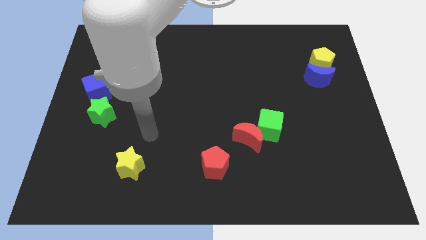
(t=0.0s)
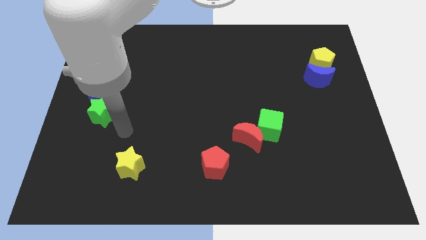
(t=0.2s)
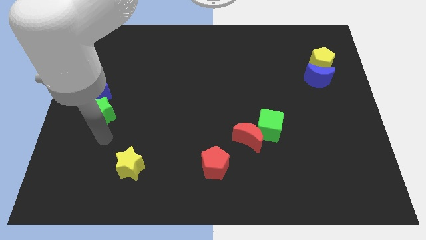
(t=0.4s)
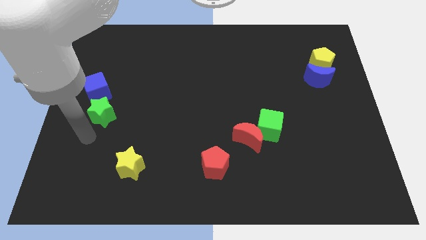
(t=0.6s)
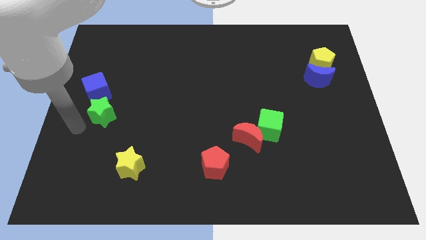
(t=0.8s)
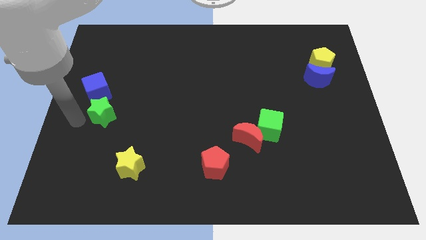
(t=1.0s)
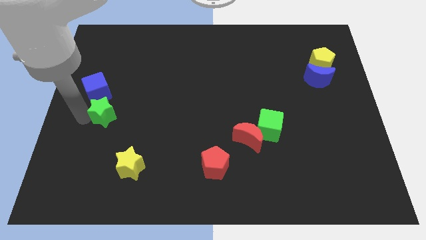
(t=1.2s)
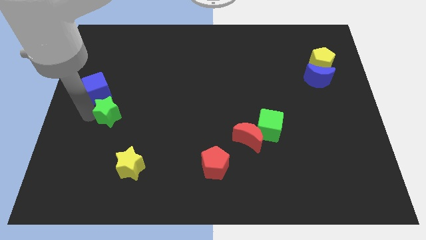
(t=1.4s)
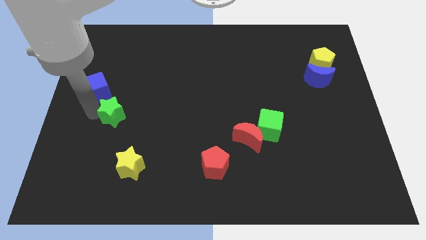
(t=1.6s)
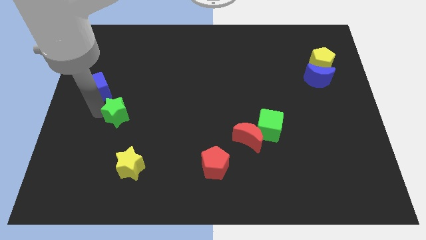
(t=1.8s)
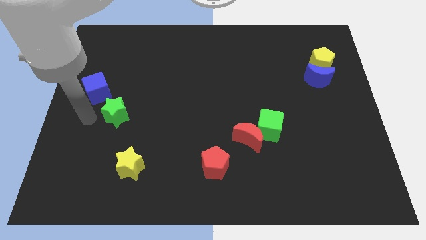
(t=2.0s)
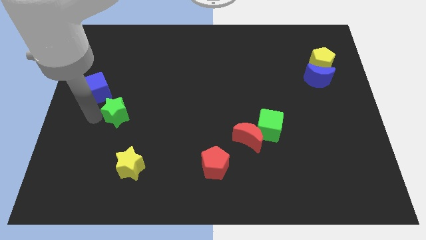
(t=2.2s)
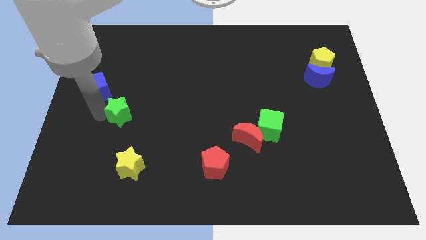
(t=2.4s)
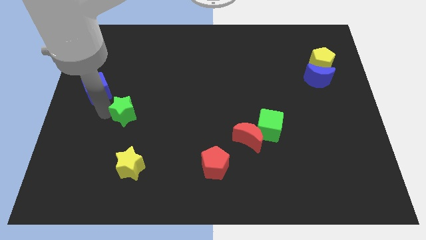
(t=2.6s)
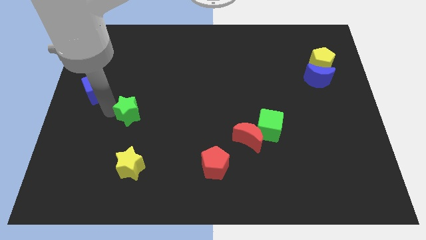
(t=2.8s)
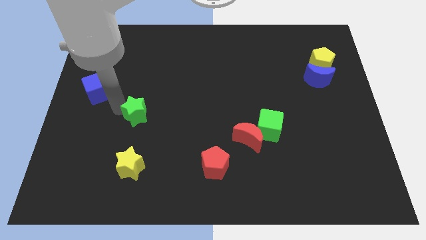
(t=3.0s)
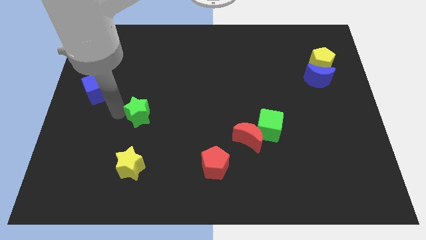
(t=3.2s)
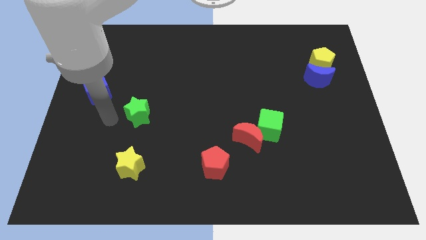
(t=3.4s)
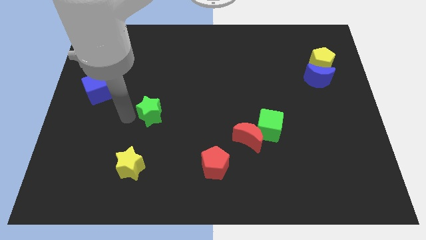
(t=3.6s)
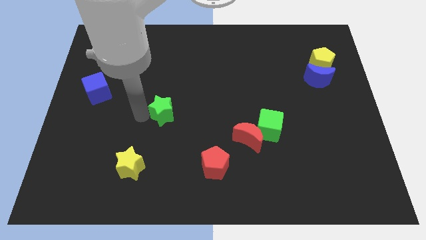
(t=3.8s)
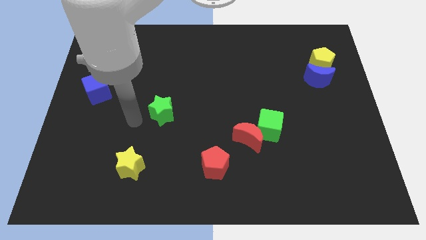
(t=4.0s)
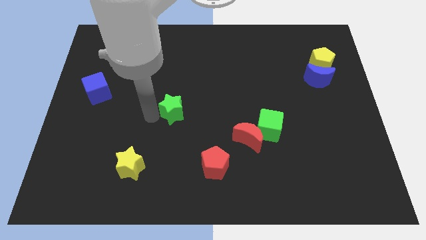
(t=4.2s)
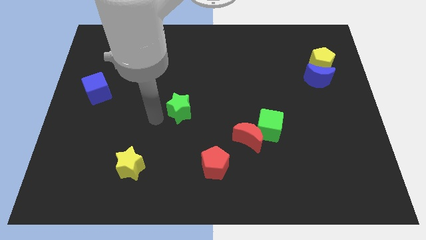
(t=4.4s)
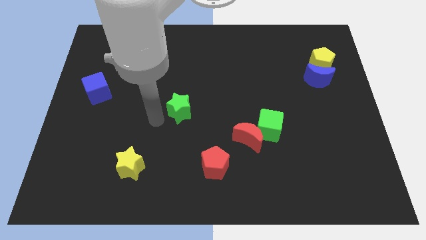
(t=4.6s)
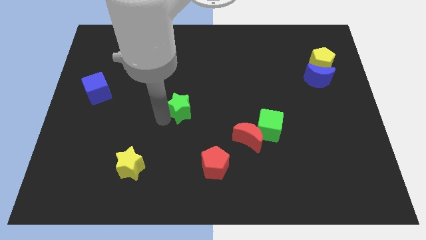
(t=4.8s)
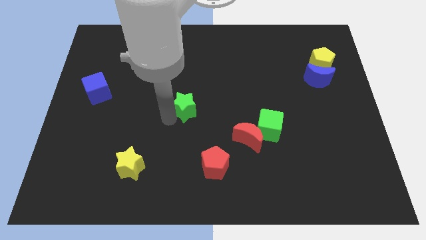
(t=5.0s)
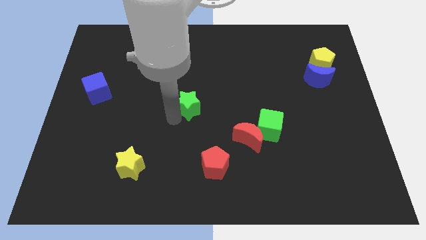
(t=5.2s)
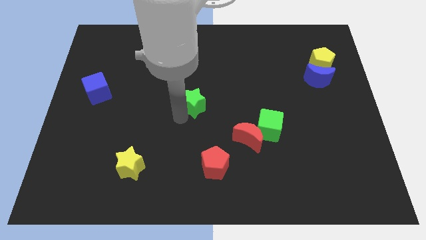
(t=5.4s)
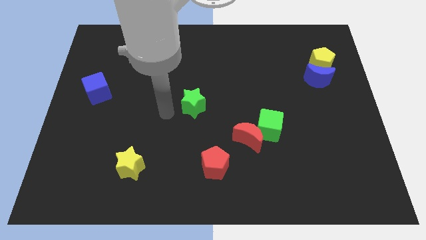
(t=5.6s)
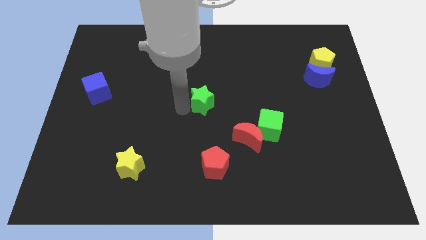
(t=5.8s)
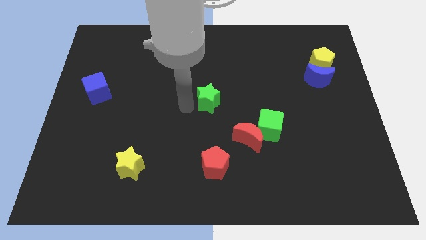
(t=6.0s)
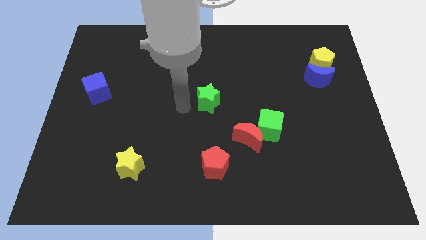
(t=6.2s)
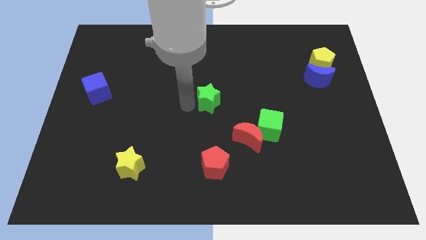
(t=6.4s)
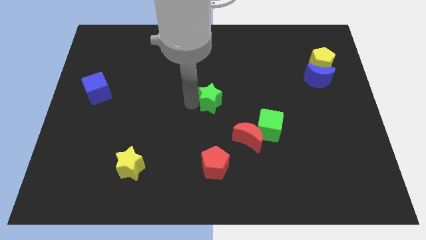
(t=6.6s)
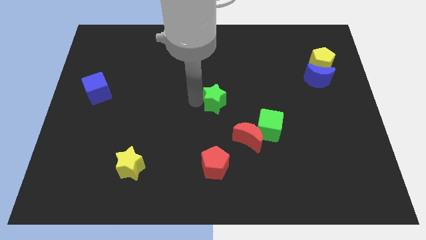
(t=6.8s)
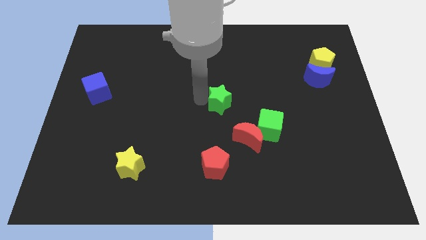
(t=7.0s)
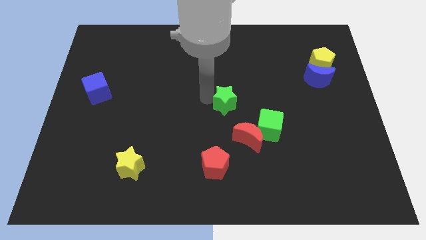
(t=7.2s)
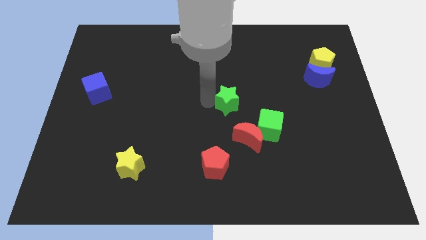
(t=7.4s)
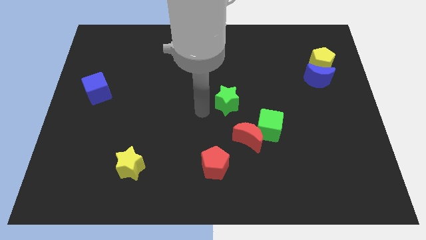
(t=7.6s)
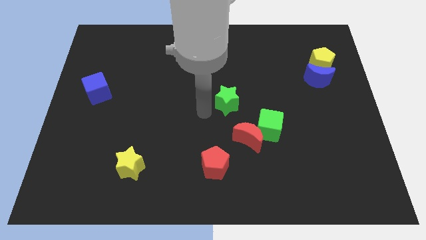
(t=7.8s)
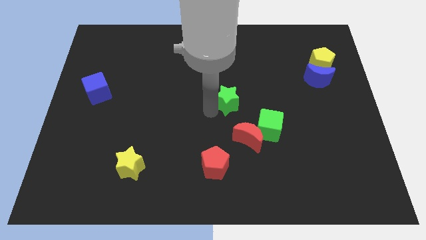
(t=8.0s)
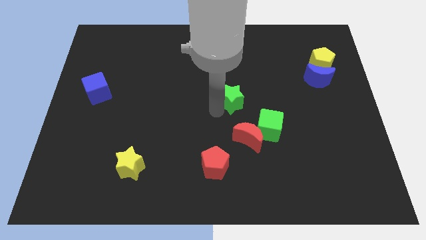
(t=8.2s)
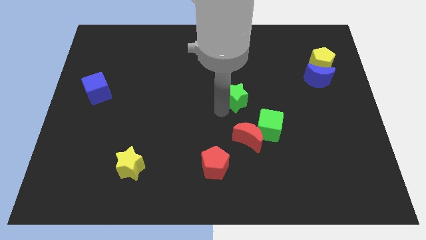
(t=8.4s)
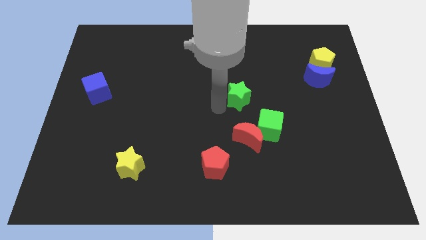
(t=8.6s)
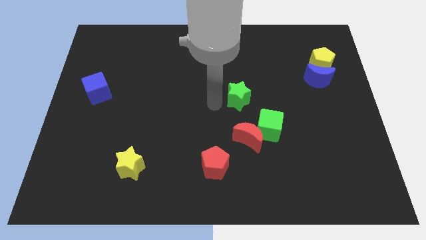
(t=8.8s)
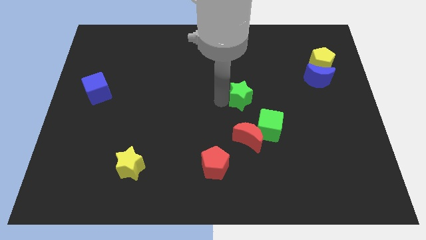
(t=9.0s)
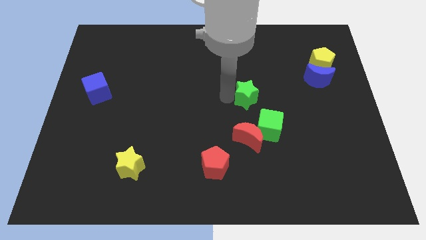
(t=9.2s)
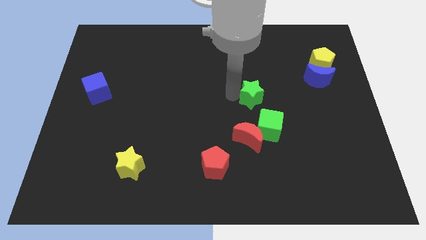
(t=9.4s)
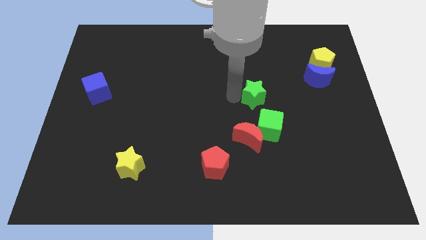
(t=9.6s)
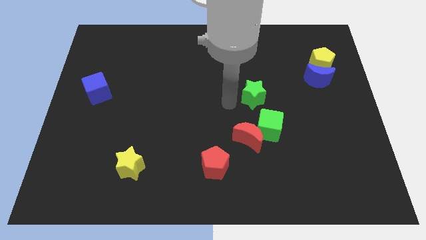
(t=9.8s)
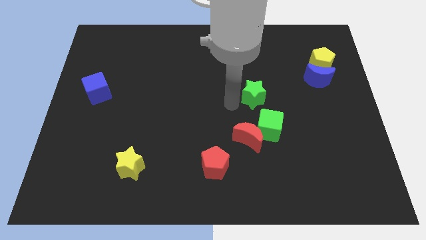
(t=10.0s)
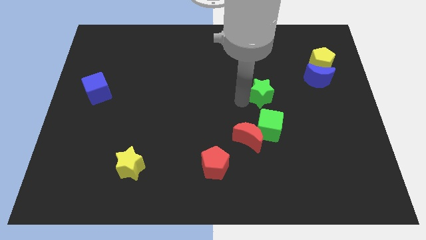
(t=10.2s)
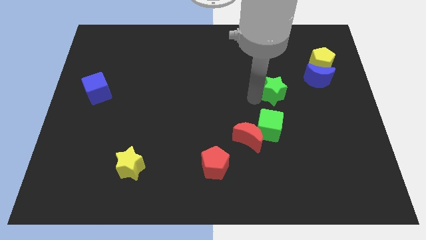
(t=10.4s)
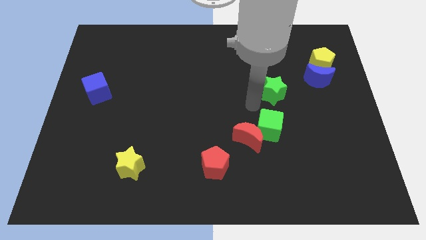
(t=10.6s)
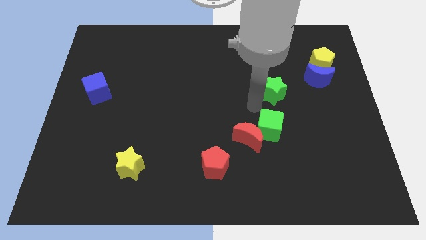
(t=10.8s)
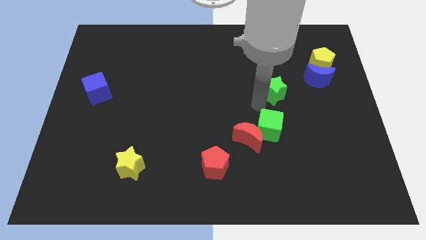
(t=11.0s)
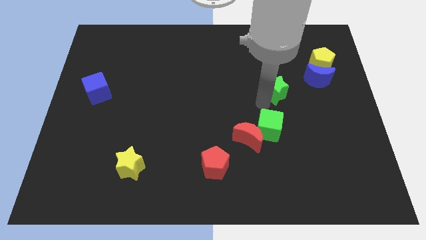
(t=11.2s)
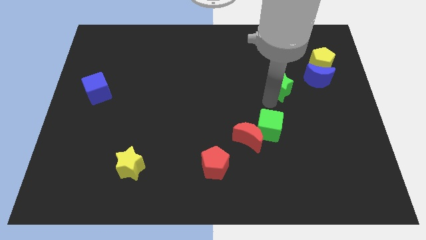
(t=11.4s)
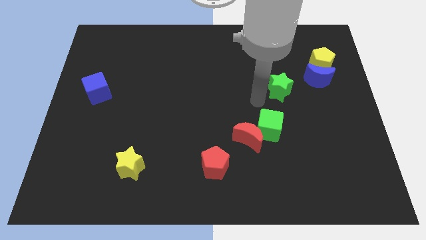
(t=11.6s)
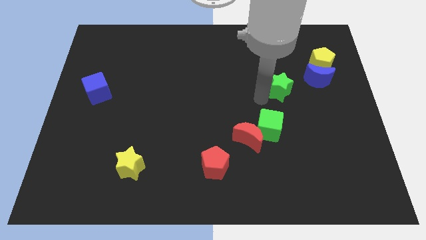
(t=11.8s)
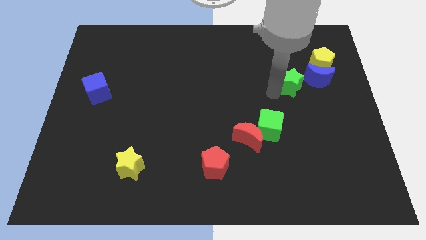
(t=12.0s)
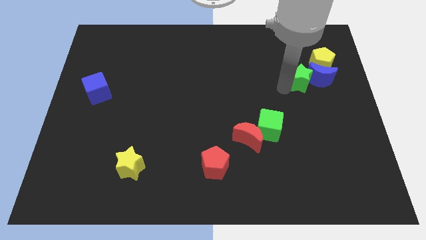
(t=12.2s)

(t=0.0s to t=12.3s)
move the green star to the blue moon

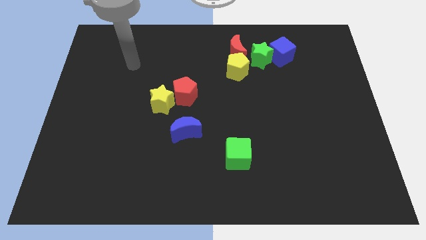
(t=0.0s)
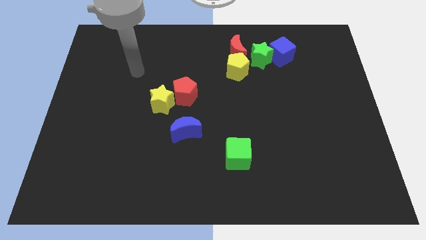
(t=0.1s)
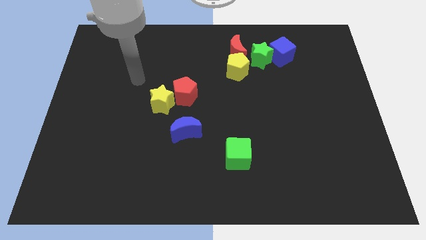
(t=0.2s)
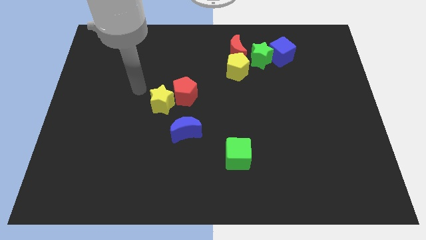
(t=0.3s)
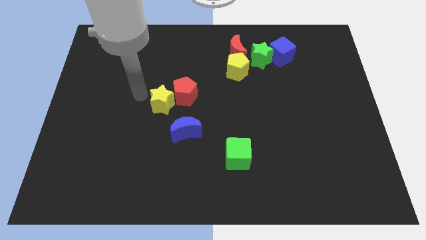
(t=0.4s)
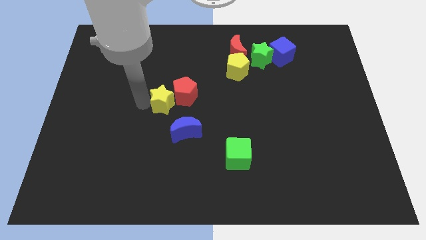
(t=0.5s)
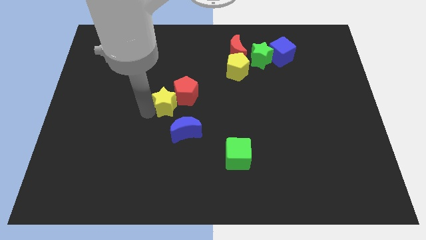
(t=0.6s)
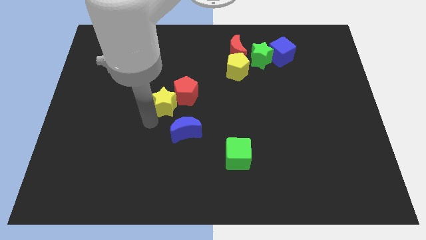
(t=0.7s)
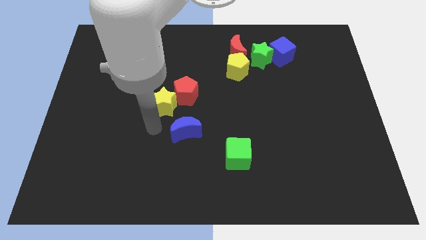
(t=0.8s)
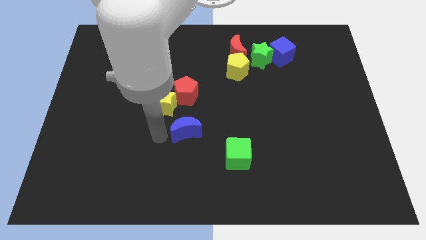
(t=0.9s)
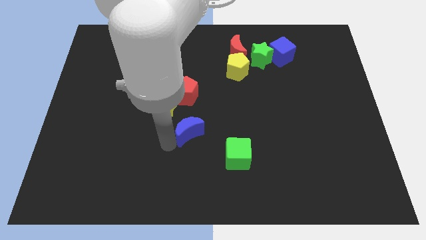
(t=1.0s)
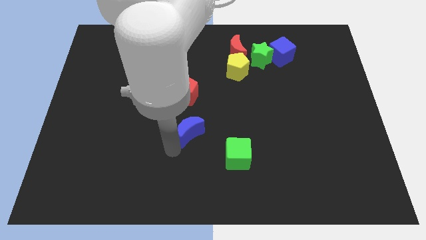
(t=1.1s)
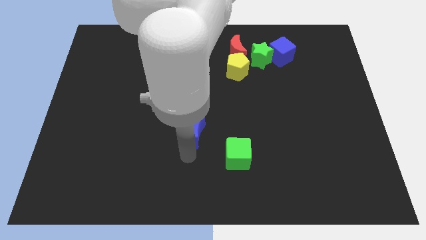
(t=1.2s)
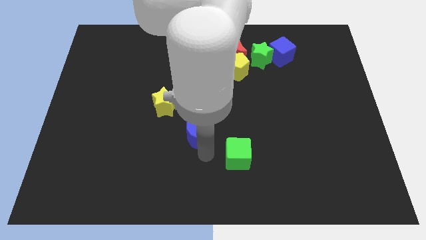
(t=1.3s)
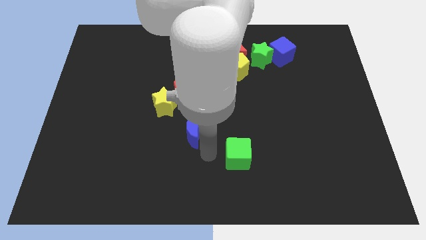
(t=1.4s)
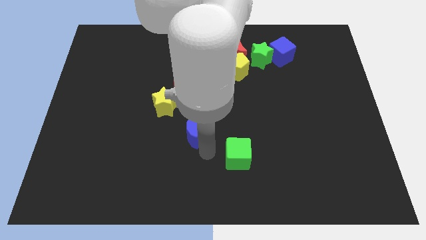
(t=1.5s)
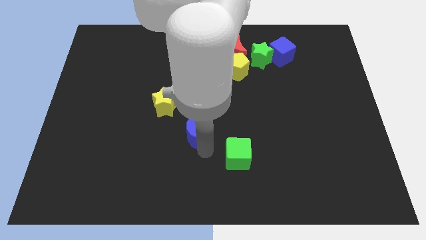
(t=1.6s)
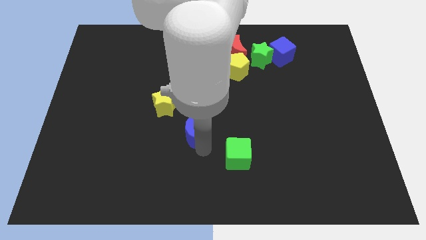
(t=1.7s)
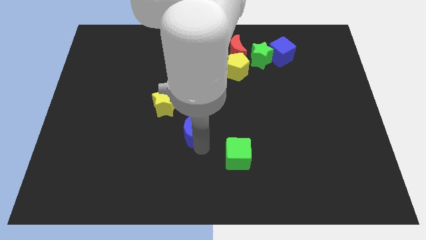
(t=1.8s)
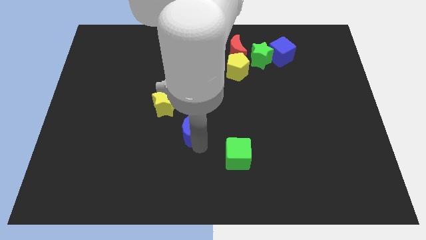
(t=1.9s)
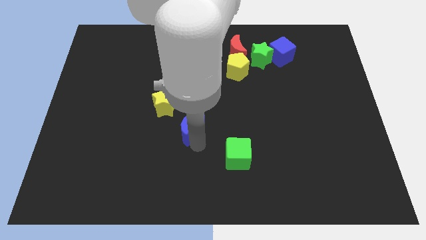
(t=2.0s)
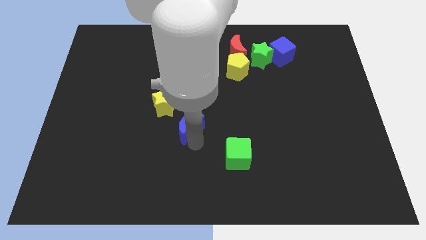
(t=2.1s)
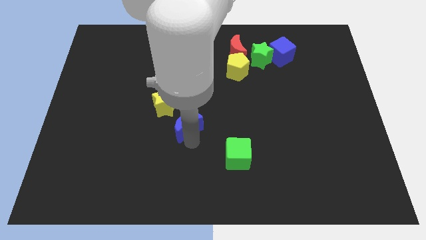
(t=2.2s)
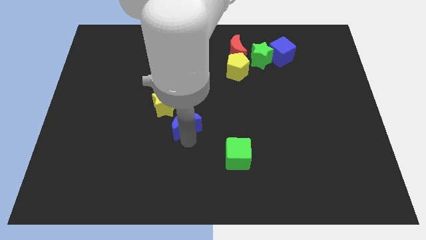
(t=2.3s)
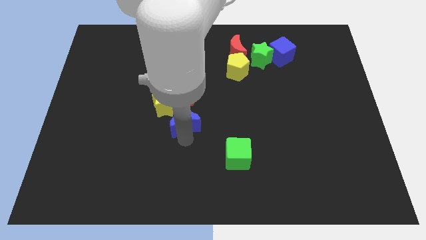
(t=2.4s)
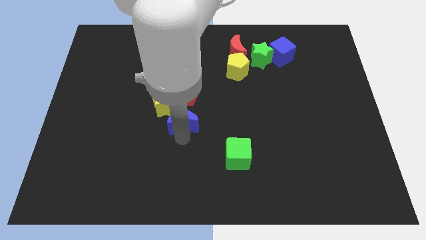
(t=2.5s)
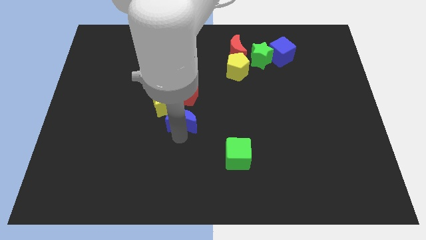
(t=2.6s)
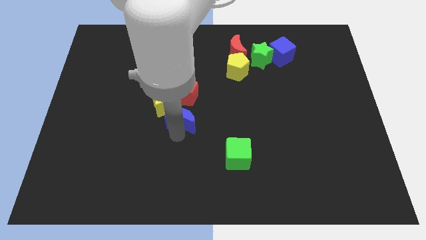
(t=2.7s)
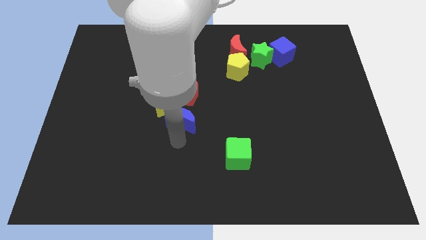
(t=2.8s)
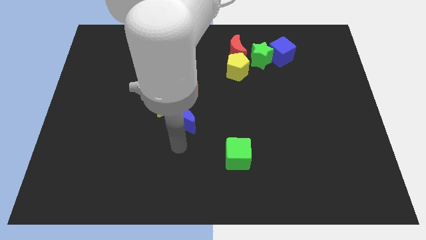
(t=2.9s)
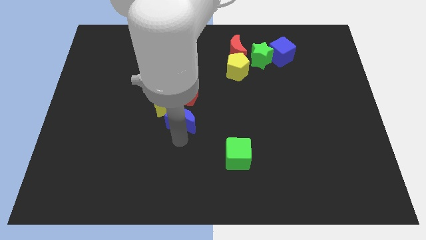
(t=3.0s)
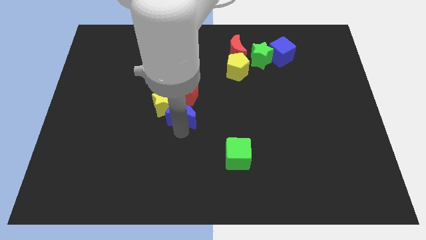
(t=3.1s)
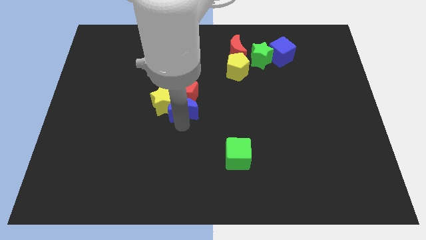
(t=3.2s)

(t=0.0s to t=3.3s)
move the blue moon to the red pentagon
